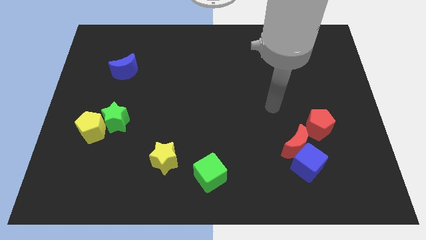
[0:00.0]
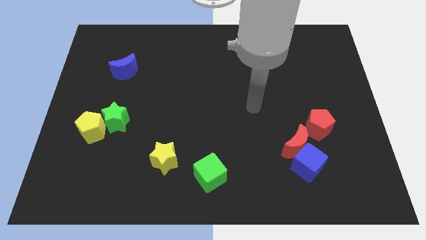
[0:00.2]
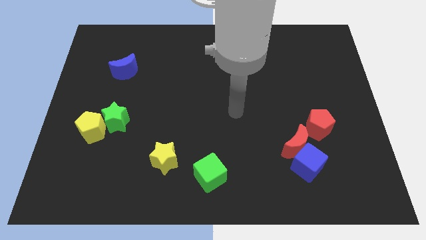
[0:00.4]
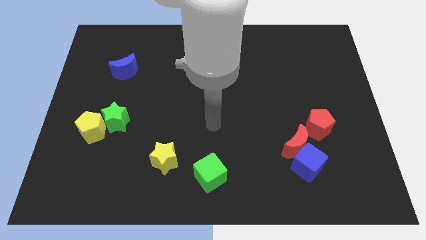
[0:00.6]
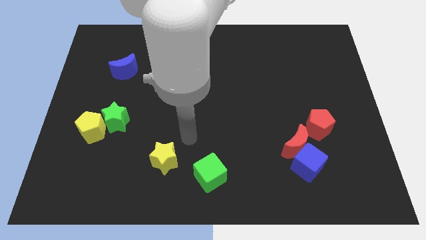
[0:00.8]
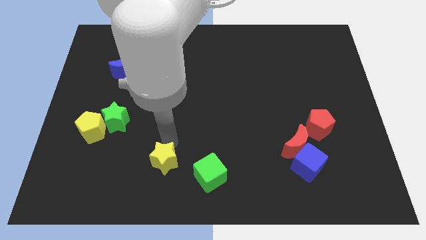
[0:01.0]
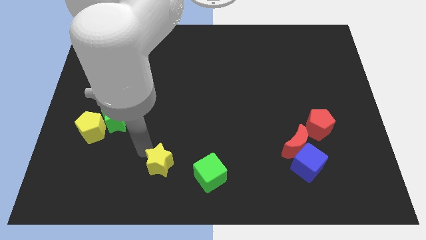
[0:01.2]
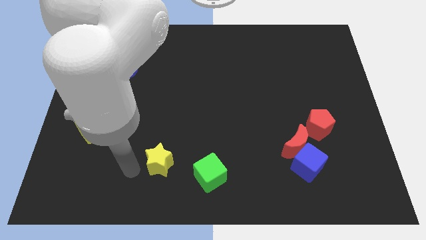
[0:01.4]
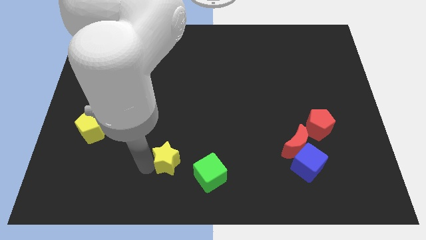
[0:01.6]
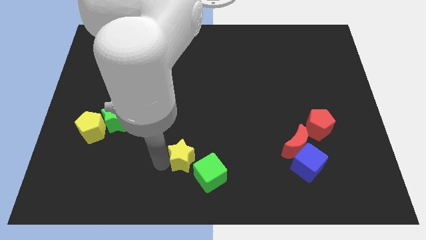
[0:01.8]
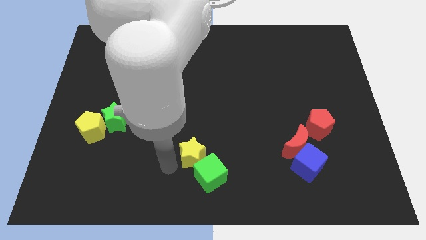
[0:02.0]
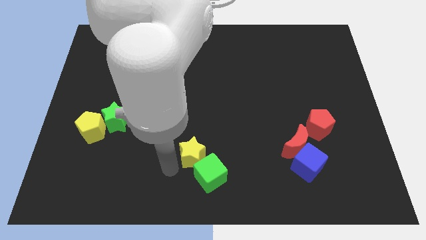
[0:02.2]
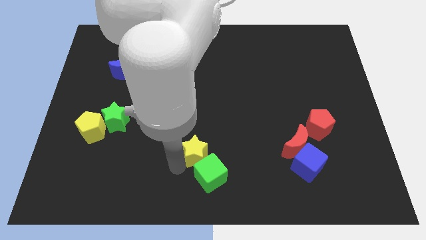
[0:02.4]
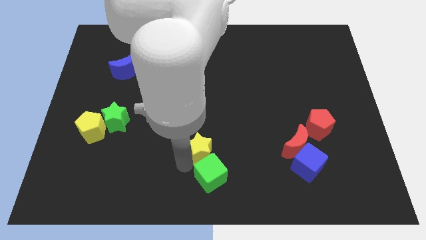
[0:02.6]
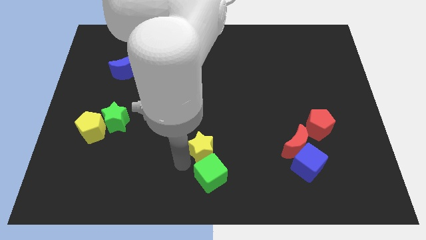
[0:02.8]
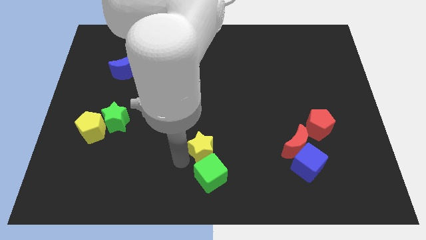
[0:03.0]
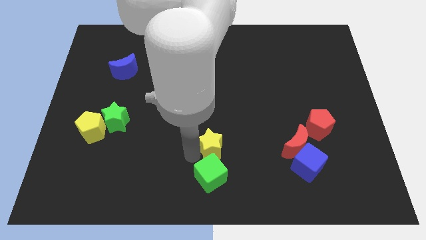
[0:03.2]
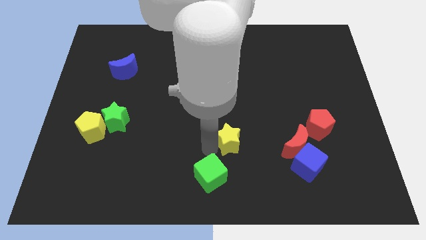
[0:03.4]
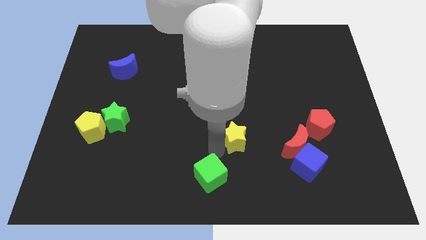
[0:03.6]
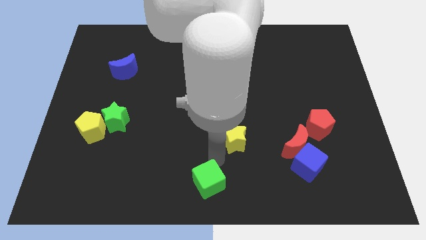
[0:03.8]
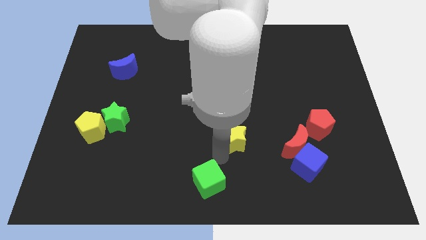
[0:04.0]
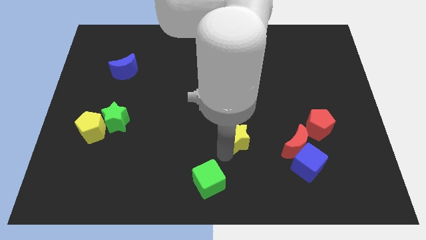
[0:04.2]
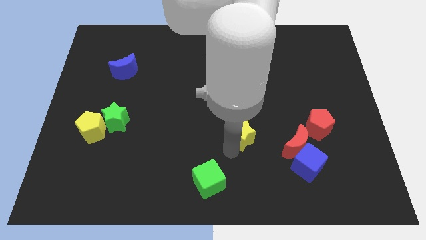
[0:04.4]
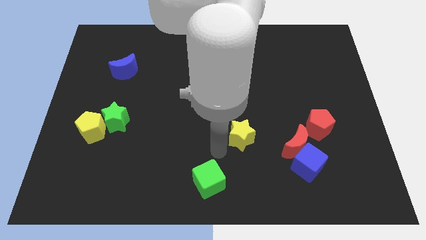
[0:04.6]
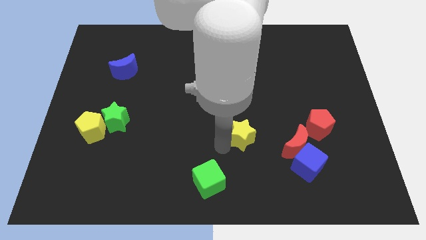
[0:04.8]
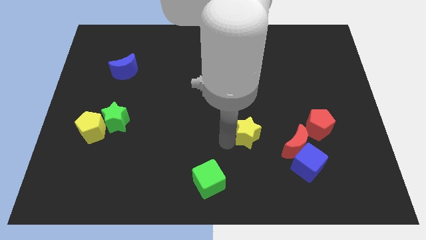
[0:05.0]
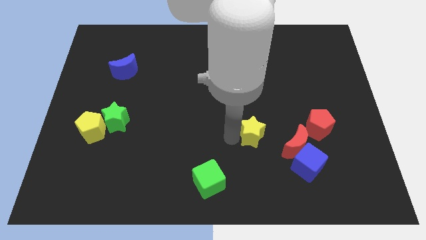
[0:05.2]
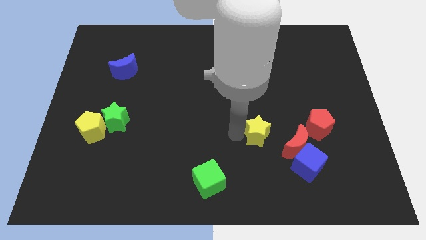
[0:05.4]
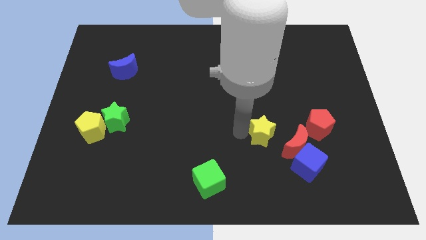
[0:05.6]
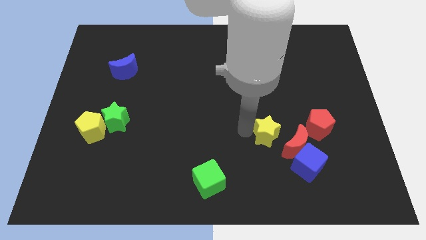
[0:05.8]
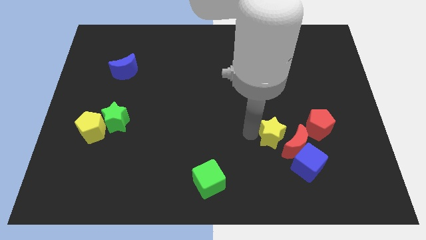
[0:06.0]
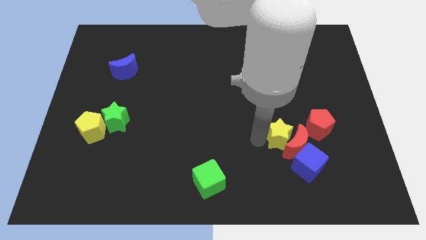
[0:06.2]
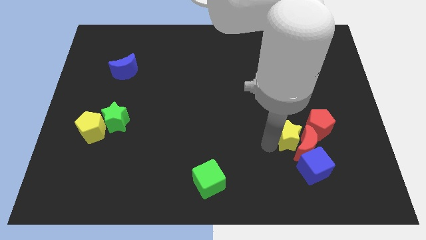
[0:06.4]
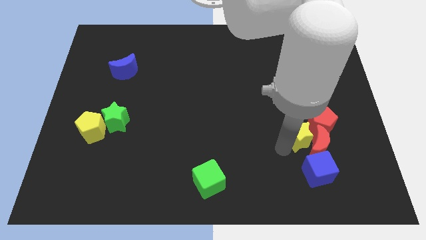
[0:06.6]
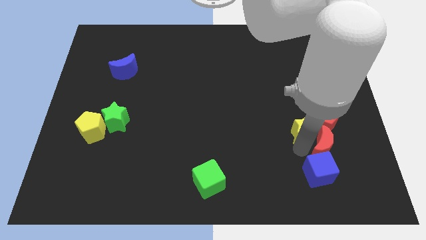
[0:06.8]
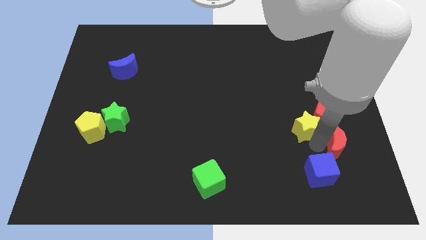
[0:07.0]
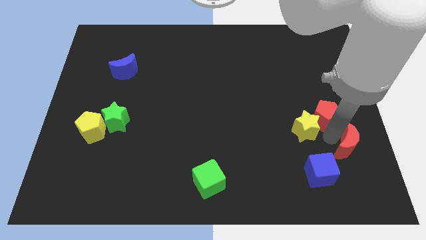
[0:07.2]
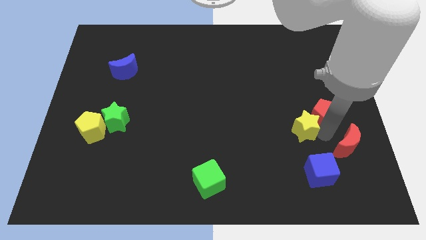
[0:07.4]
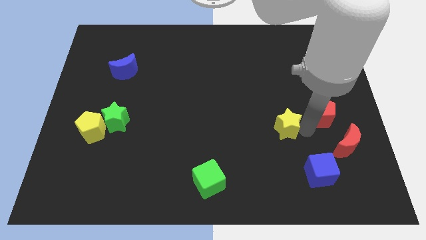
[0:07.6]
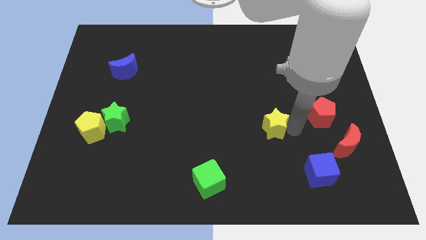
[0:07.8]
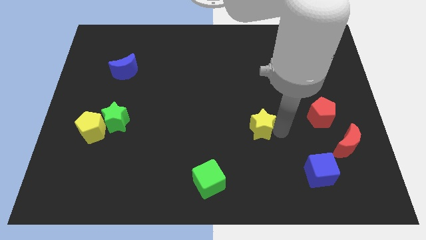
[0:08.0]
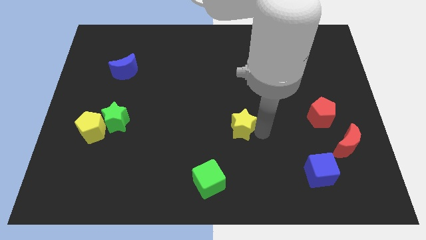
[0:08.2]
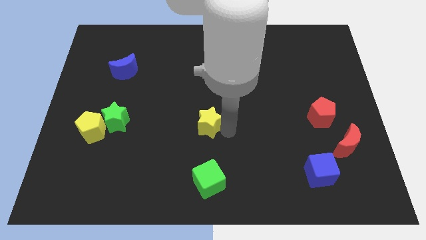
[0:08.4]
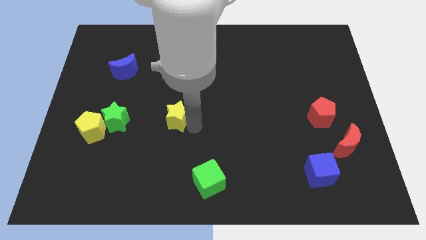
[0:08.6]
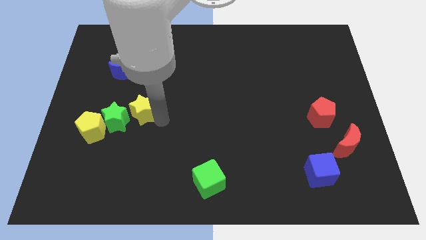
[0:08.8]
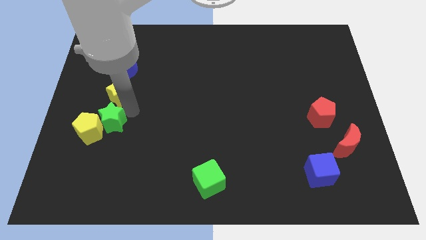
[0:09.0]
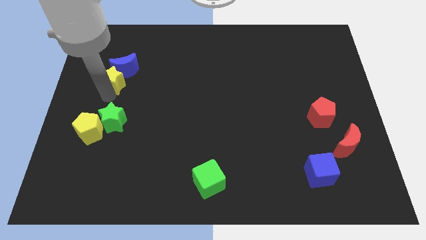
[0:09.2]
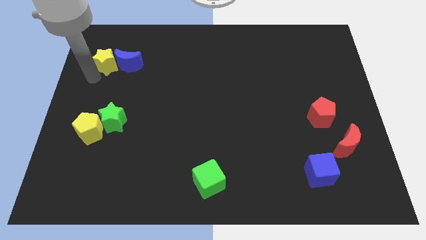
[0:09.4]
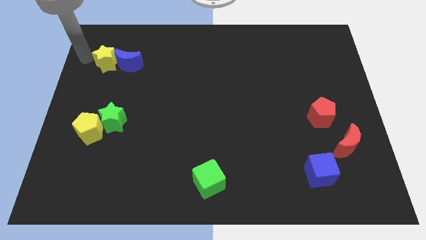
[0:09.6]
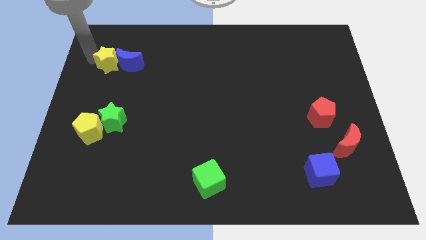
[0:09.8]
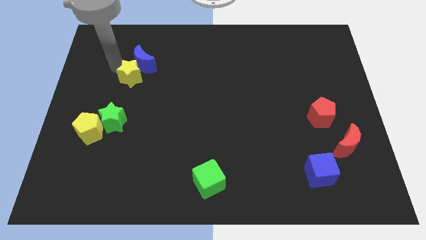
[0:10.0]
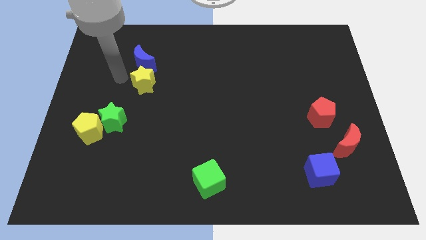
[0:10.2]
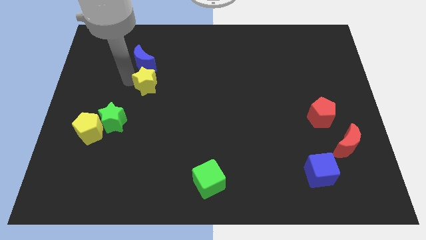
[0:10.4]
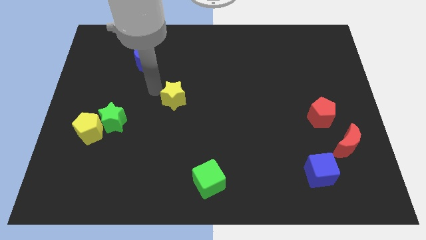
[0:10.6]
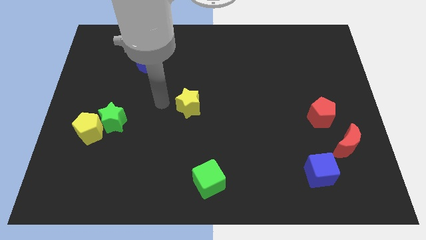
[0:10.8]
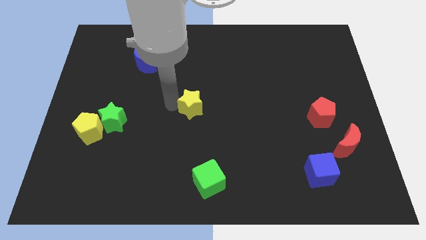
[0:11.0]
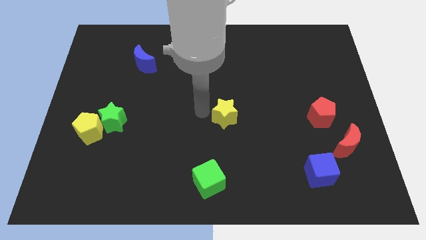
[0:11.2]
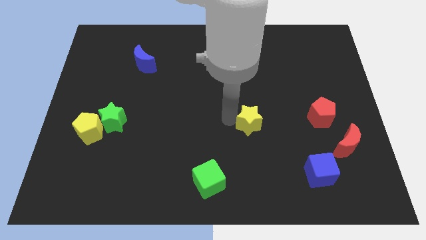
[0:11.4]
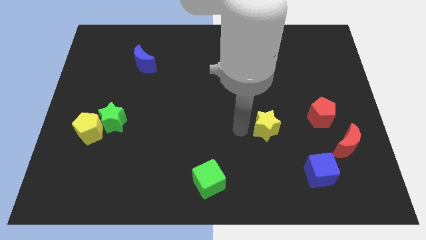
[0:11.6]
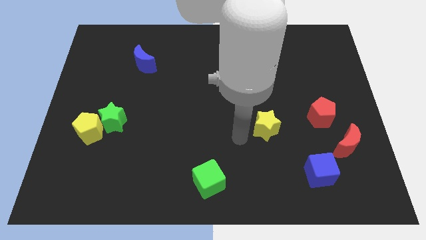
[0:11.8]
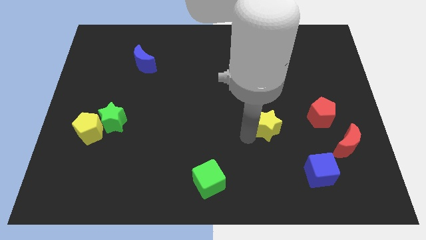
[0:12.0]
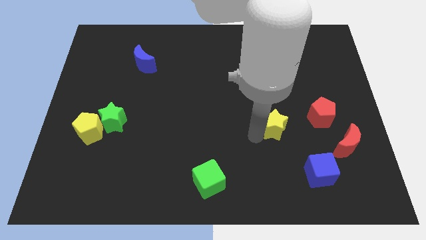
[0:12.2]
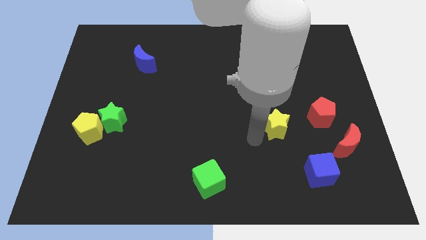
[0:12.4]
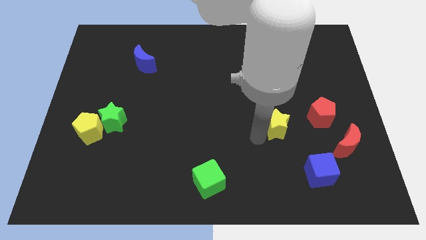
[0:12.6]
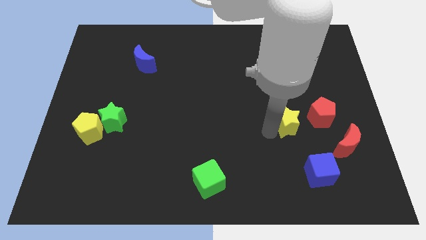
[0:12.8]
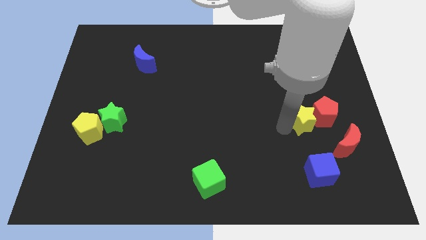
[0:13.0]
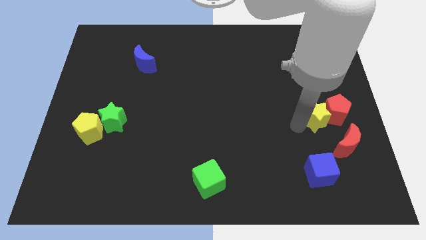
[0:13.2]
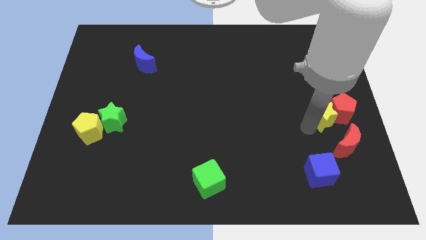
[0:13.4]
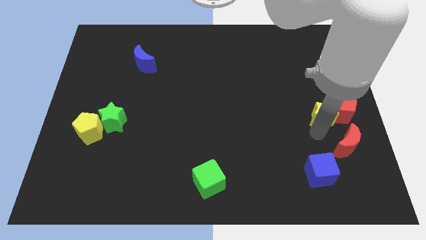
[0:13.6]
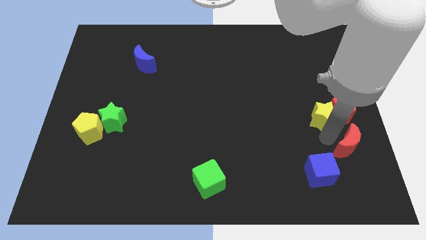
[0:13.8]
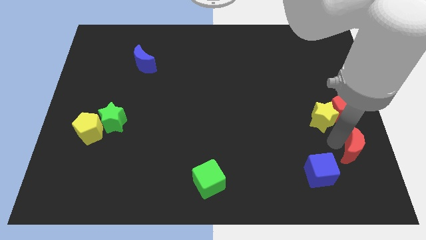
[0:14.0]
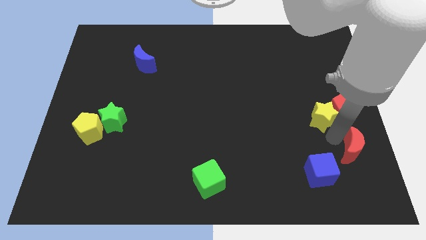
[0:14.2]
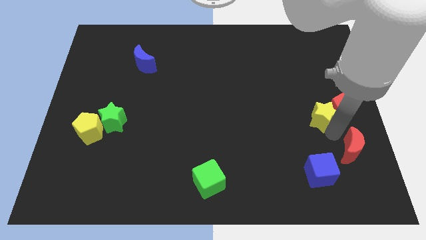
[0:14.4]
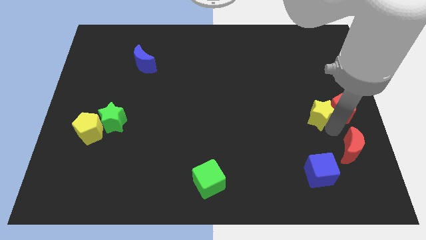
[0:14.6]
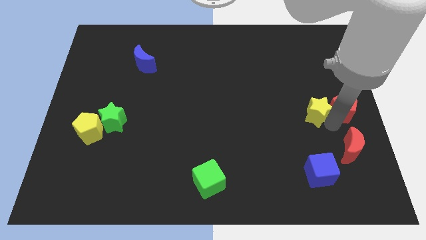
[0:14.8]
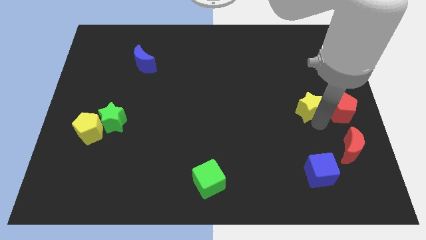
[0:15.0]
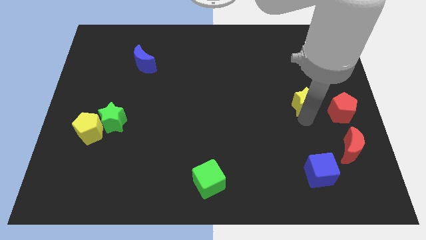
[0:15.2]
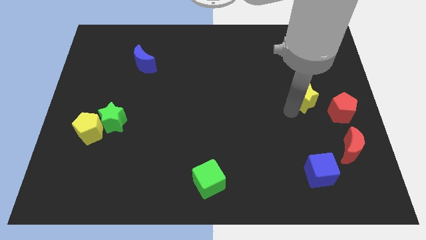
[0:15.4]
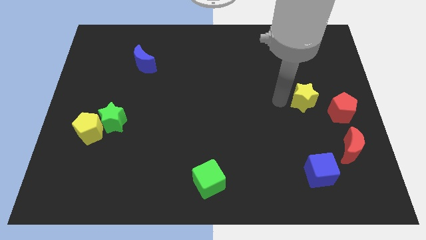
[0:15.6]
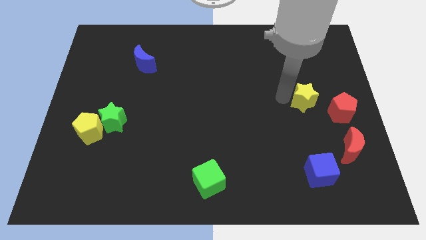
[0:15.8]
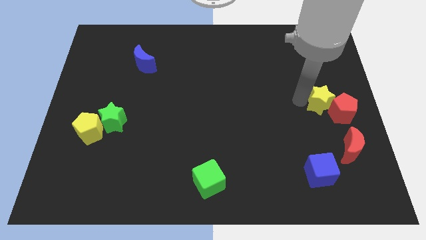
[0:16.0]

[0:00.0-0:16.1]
put the yellow star to the right side of the board
